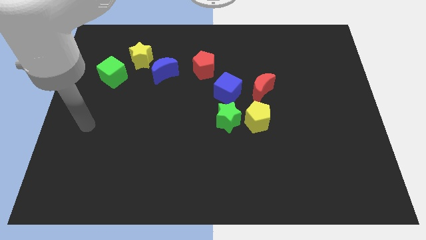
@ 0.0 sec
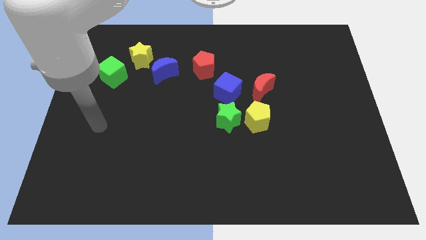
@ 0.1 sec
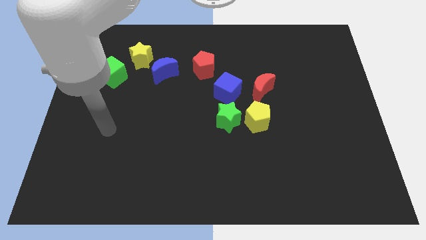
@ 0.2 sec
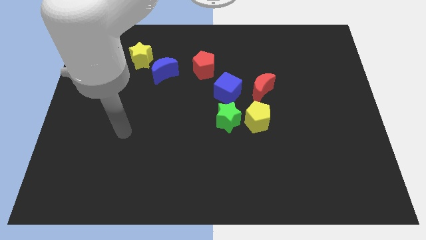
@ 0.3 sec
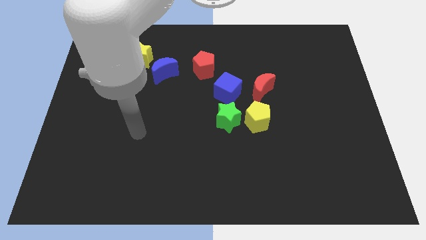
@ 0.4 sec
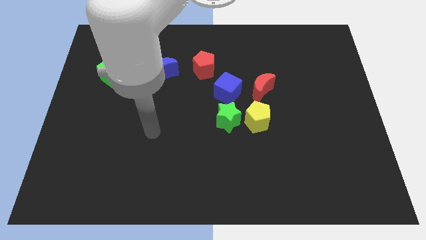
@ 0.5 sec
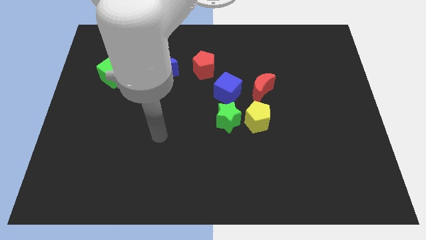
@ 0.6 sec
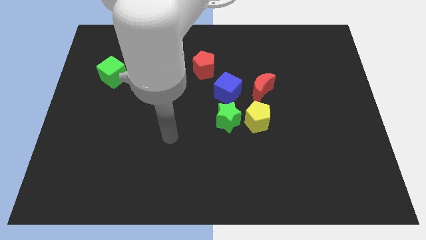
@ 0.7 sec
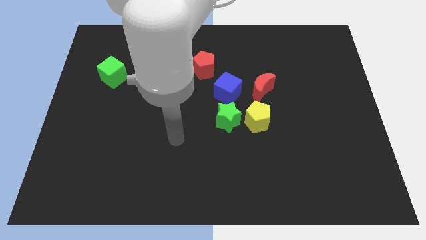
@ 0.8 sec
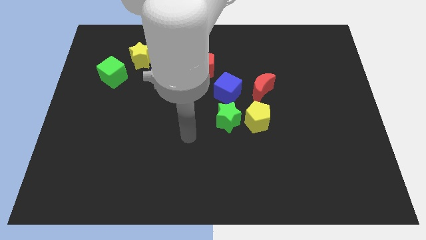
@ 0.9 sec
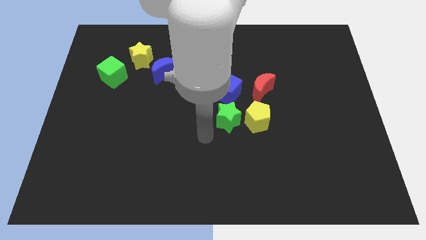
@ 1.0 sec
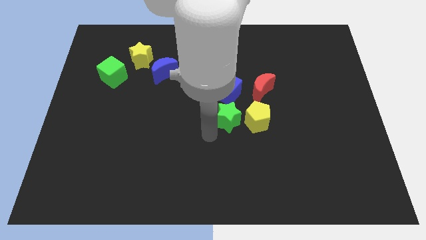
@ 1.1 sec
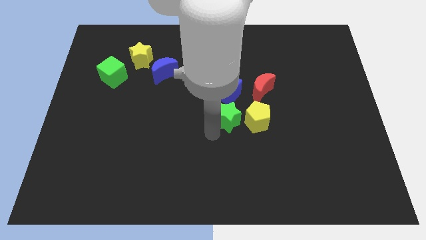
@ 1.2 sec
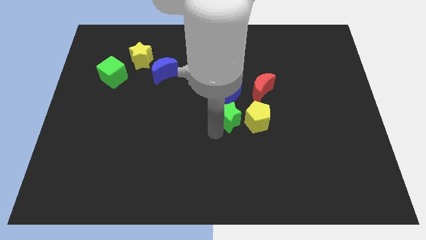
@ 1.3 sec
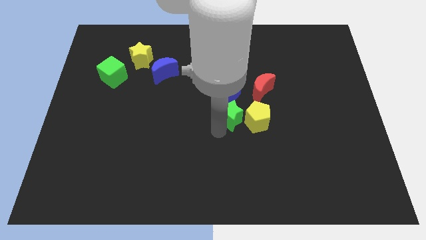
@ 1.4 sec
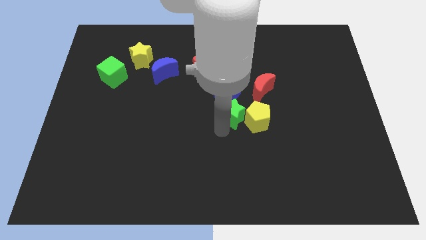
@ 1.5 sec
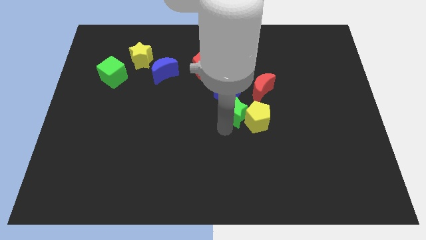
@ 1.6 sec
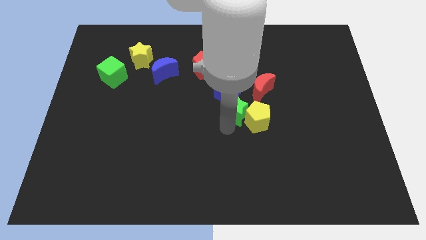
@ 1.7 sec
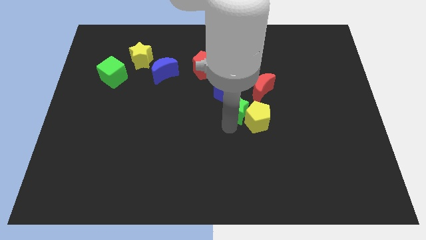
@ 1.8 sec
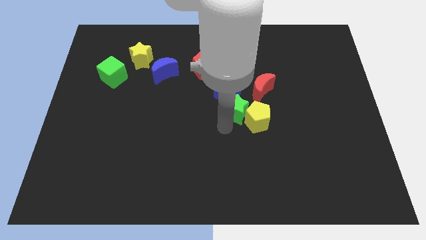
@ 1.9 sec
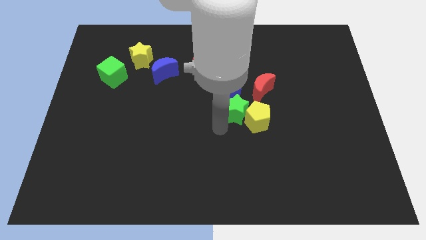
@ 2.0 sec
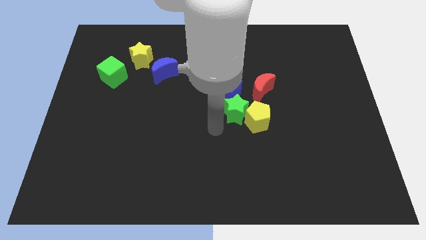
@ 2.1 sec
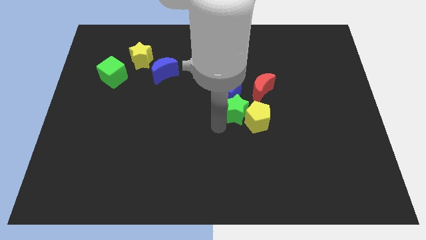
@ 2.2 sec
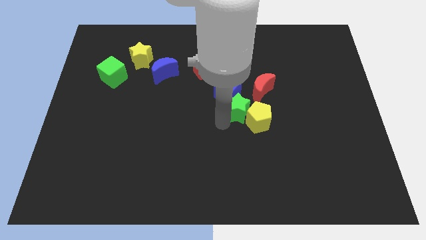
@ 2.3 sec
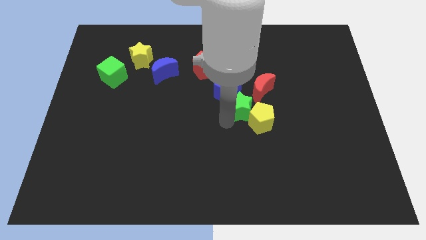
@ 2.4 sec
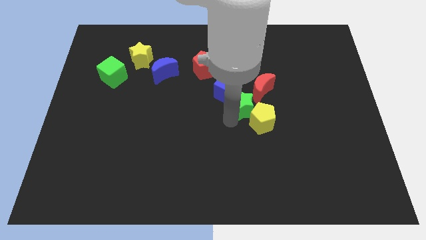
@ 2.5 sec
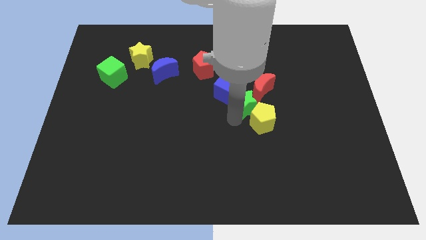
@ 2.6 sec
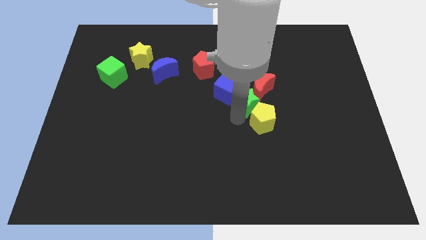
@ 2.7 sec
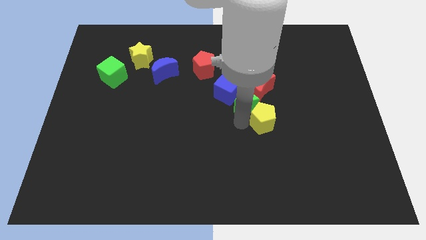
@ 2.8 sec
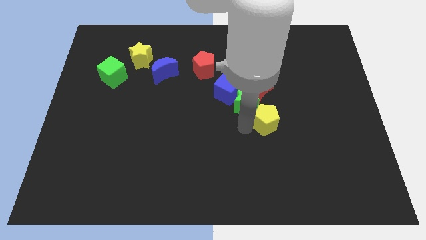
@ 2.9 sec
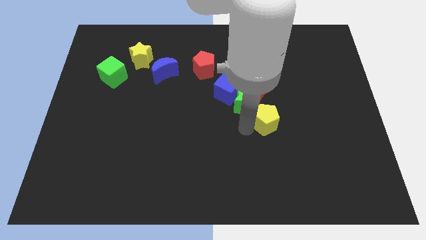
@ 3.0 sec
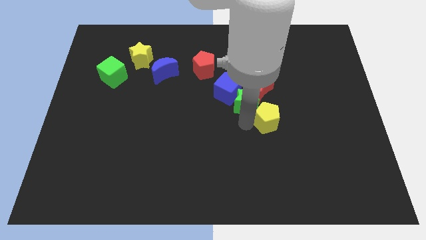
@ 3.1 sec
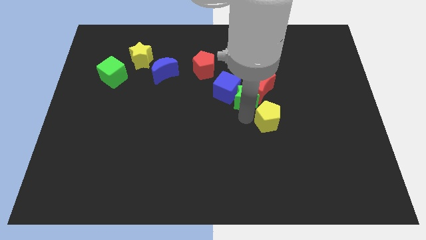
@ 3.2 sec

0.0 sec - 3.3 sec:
push the green star diagonally upwards and to the right somewhat

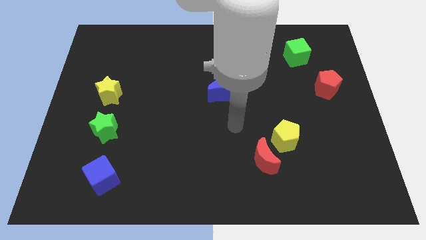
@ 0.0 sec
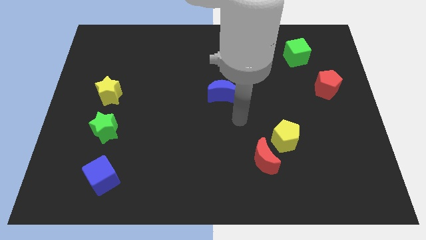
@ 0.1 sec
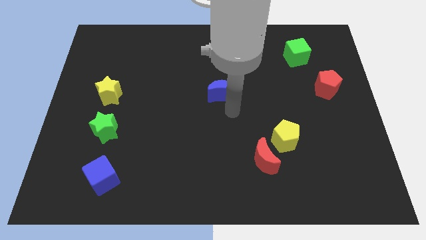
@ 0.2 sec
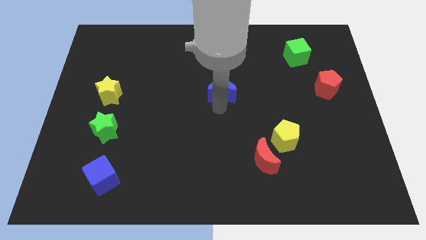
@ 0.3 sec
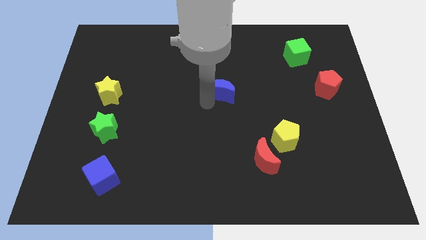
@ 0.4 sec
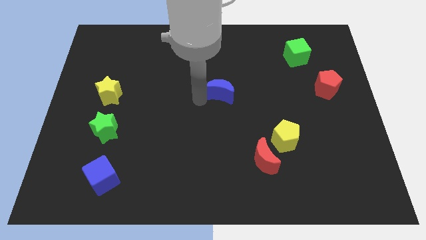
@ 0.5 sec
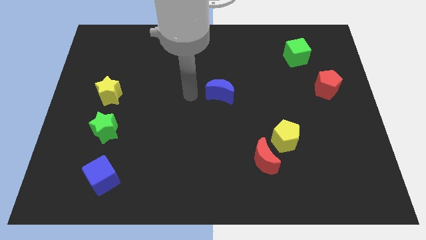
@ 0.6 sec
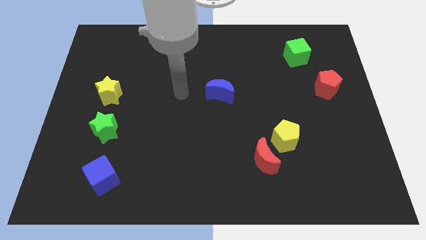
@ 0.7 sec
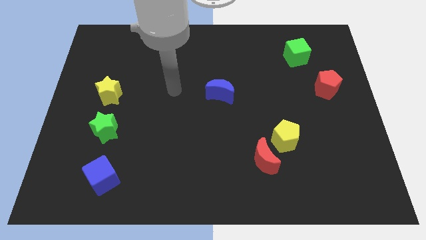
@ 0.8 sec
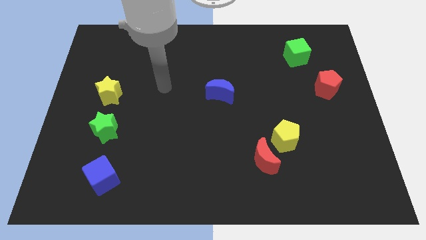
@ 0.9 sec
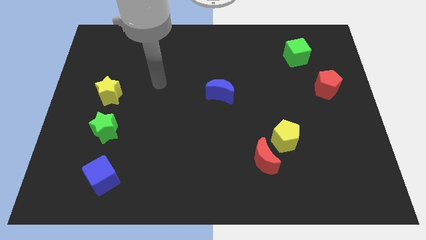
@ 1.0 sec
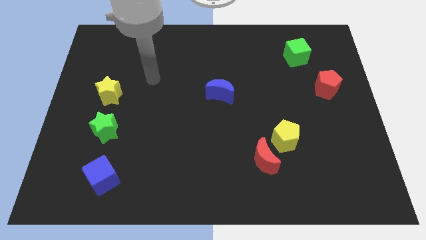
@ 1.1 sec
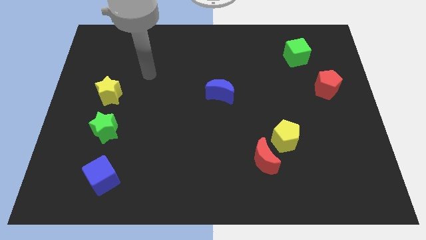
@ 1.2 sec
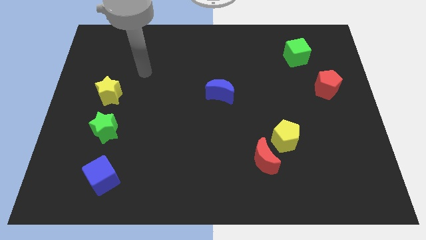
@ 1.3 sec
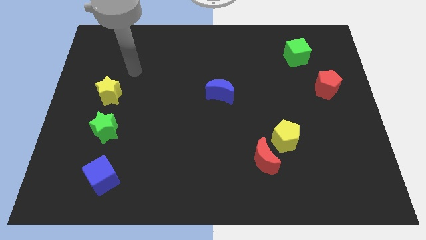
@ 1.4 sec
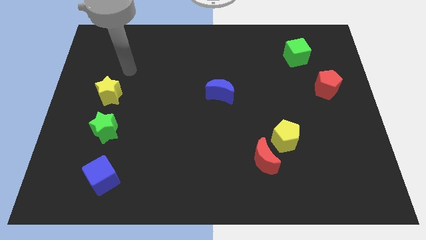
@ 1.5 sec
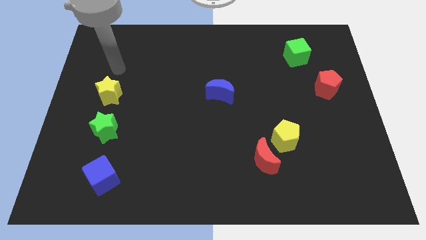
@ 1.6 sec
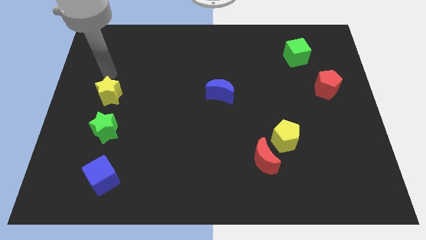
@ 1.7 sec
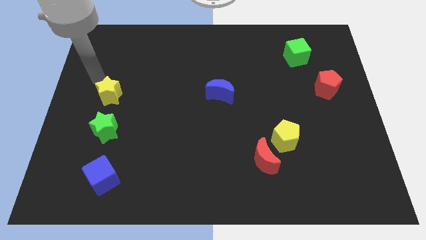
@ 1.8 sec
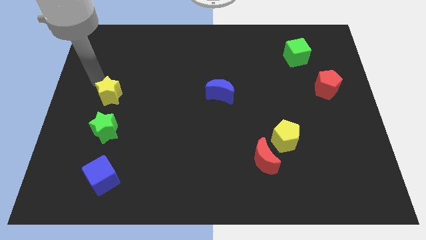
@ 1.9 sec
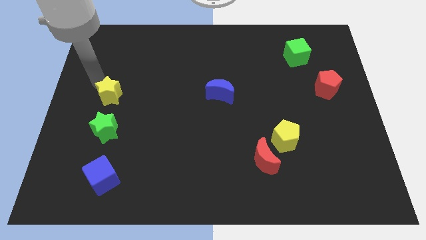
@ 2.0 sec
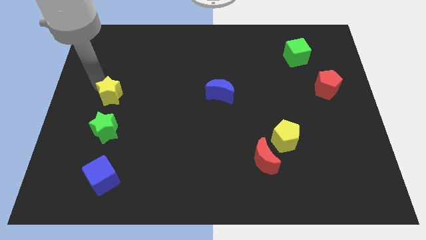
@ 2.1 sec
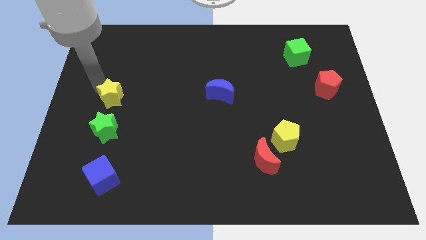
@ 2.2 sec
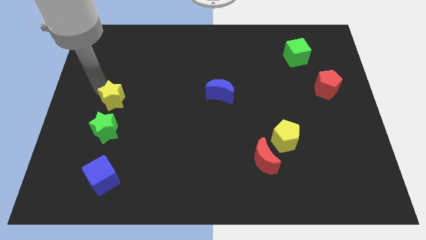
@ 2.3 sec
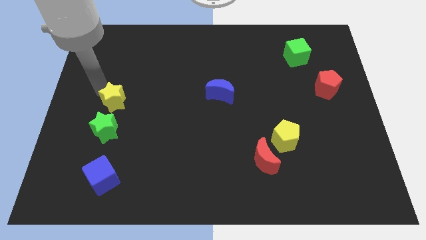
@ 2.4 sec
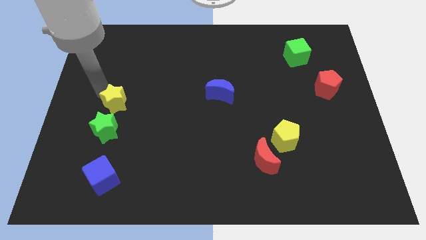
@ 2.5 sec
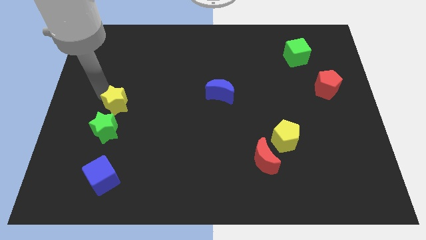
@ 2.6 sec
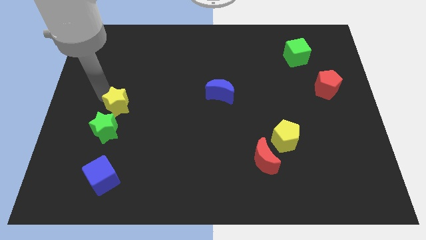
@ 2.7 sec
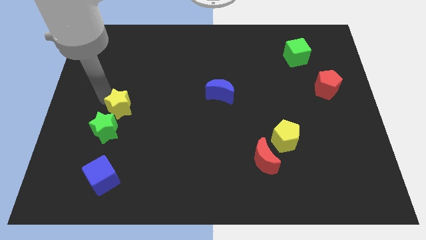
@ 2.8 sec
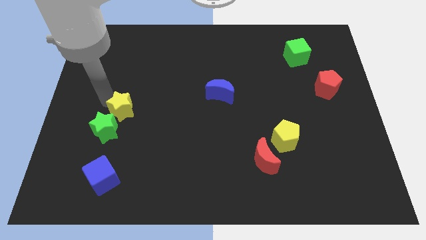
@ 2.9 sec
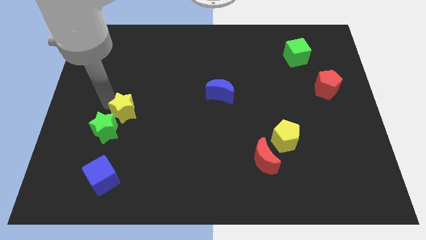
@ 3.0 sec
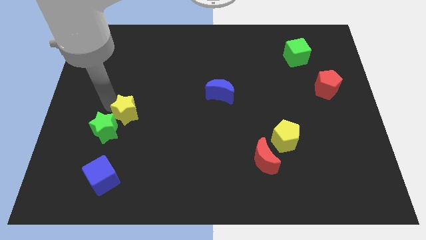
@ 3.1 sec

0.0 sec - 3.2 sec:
slightly slide the yellow star down and to the right diagonally

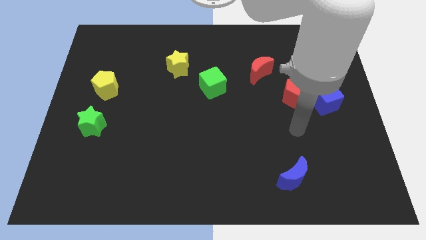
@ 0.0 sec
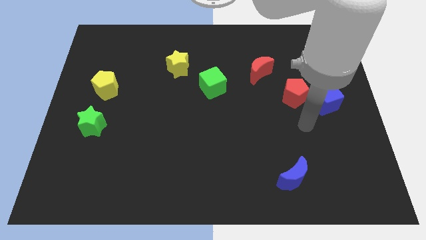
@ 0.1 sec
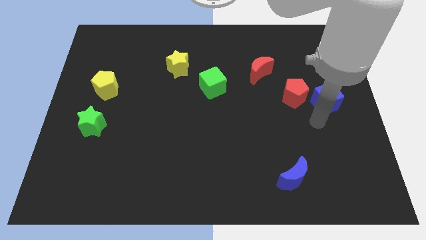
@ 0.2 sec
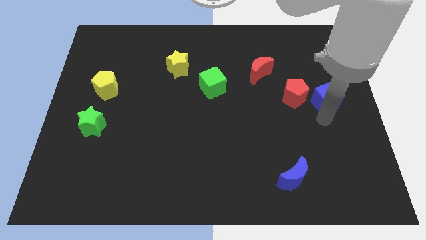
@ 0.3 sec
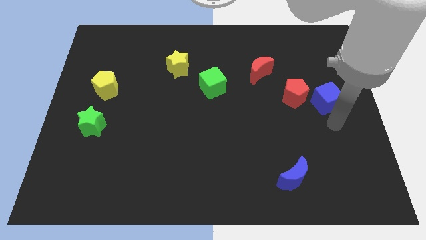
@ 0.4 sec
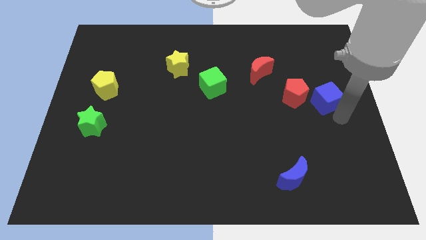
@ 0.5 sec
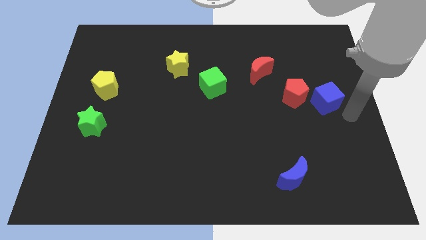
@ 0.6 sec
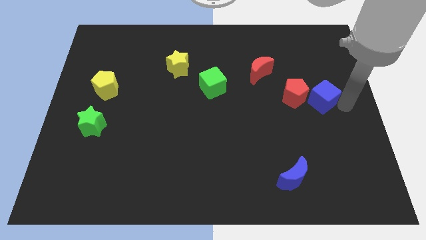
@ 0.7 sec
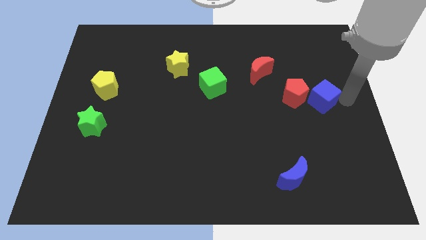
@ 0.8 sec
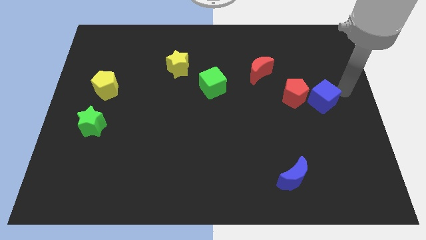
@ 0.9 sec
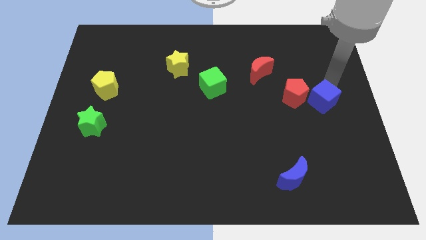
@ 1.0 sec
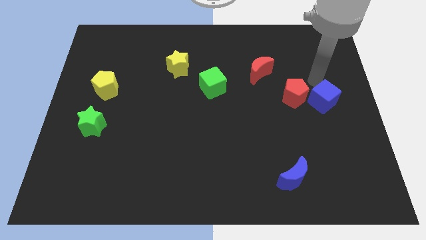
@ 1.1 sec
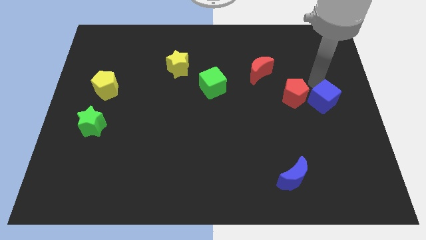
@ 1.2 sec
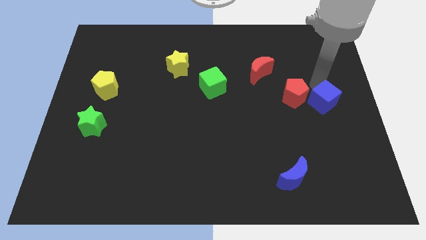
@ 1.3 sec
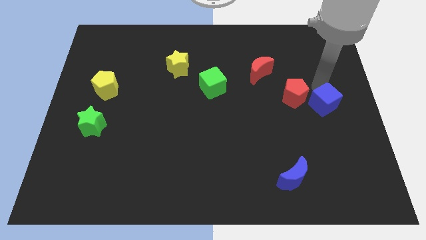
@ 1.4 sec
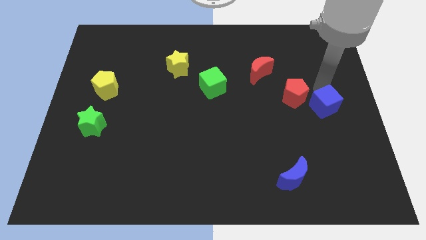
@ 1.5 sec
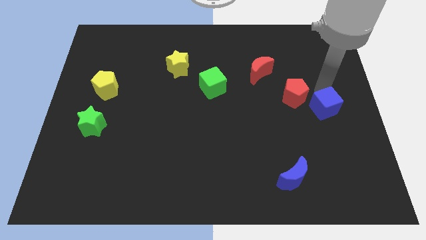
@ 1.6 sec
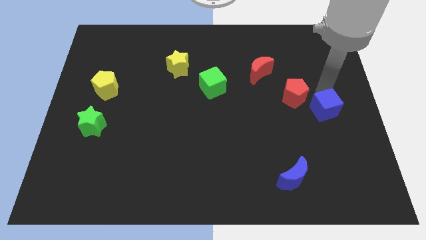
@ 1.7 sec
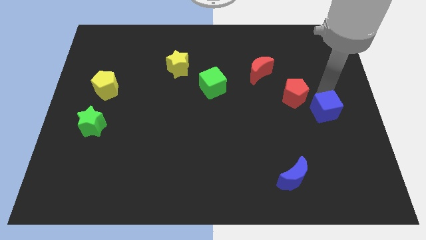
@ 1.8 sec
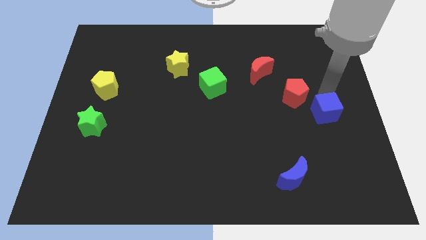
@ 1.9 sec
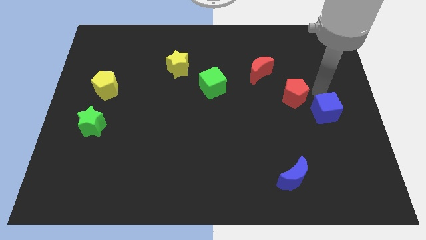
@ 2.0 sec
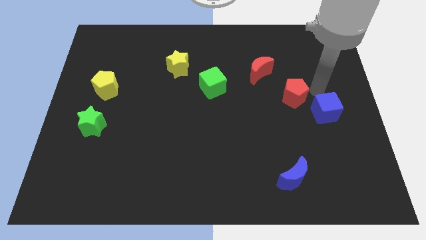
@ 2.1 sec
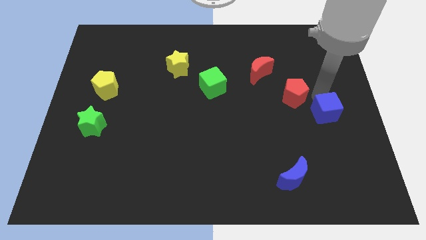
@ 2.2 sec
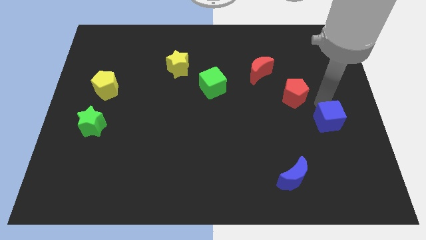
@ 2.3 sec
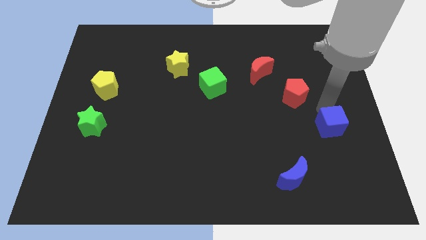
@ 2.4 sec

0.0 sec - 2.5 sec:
slightly move the blue cube downwards
